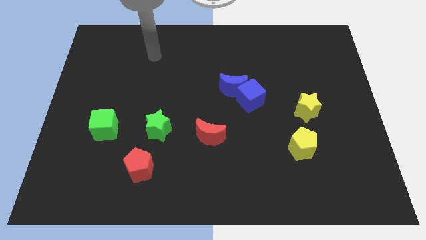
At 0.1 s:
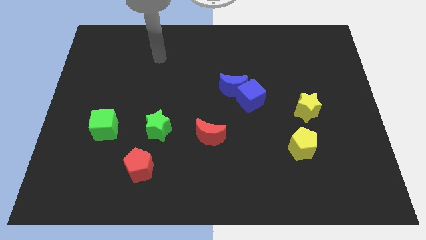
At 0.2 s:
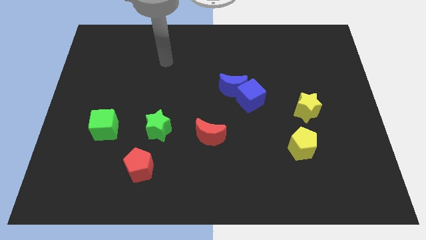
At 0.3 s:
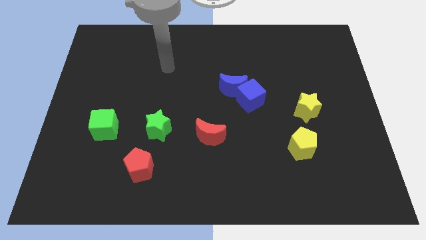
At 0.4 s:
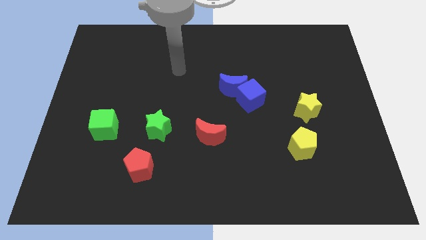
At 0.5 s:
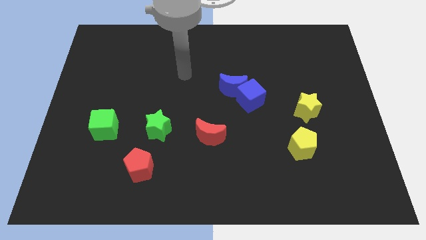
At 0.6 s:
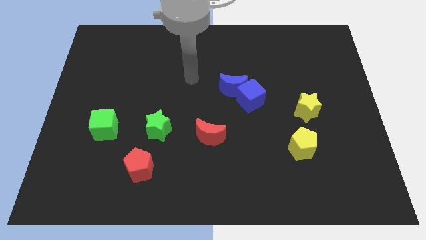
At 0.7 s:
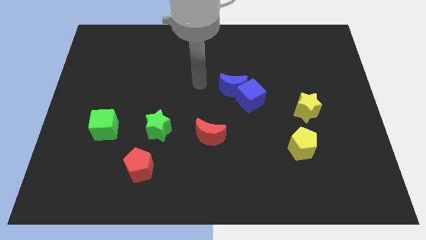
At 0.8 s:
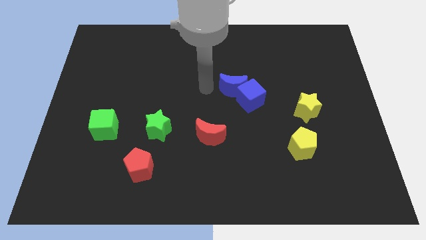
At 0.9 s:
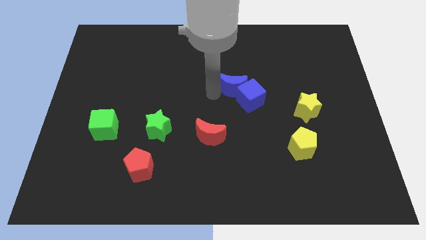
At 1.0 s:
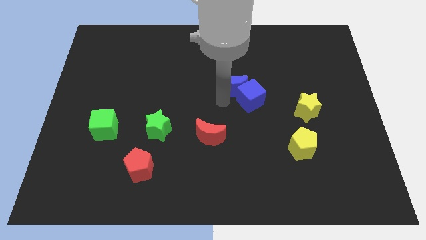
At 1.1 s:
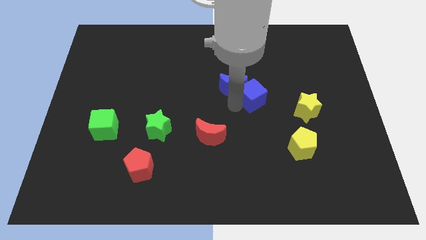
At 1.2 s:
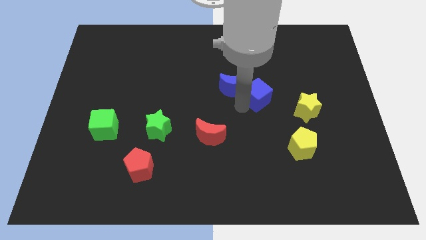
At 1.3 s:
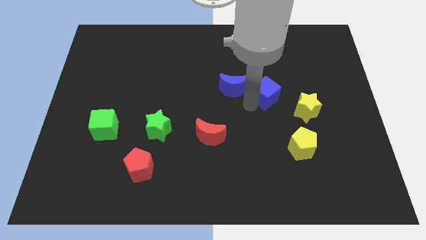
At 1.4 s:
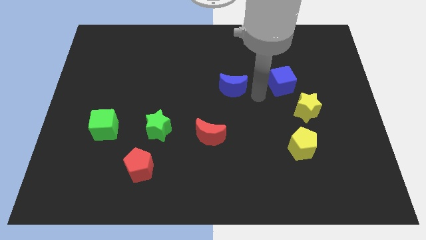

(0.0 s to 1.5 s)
pull the blue moon apart from the blue cube

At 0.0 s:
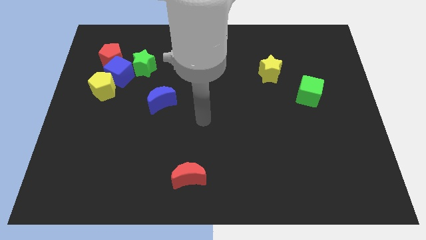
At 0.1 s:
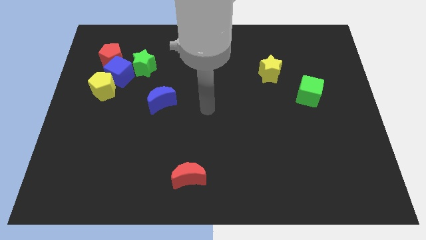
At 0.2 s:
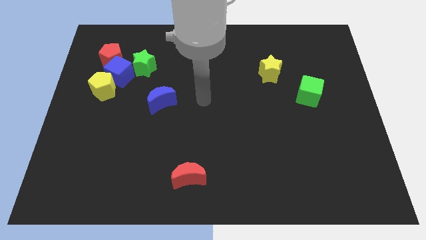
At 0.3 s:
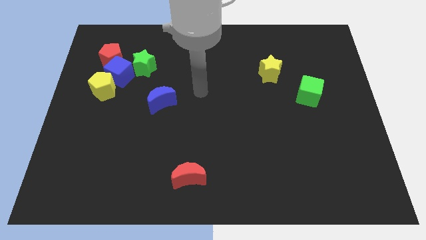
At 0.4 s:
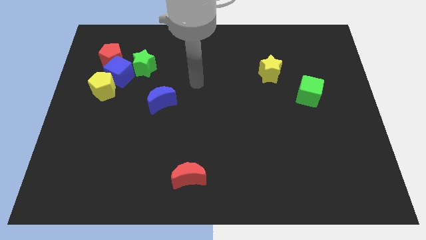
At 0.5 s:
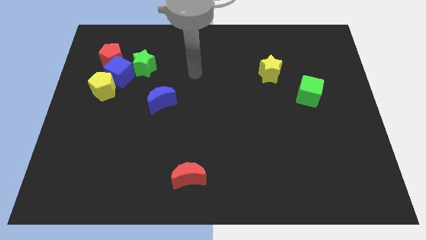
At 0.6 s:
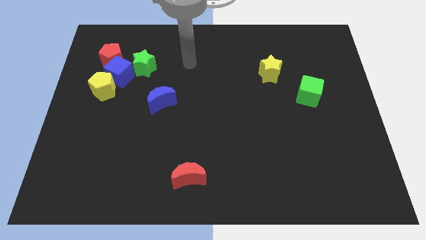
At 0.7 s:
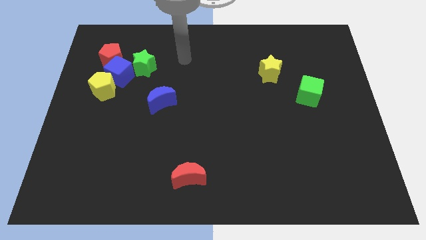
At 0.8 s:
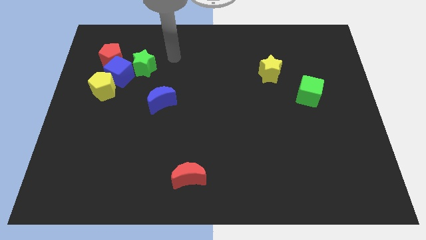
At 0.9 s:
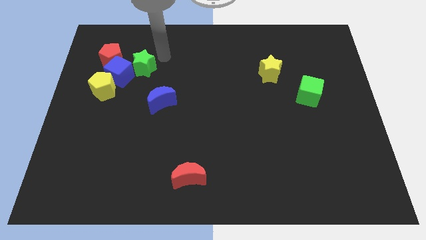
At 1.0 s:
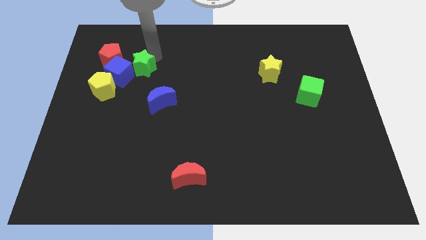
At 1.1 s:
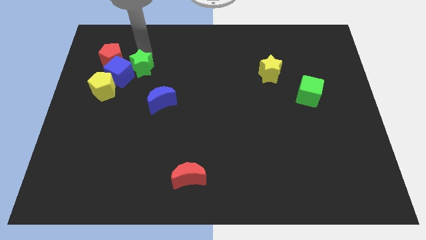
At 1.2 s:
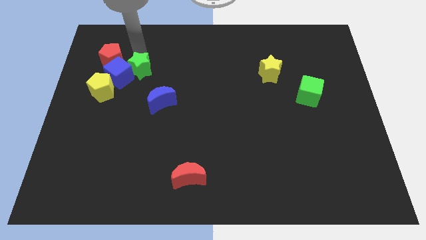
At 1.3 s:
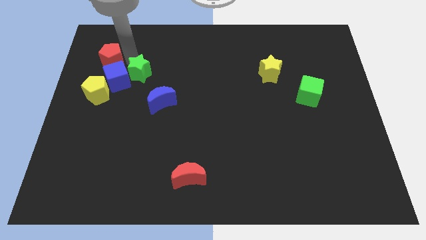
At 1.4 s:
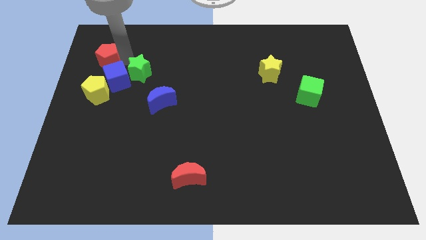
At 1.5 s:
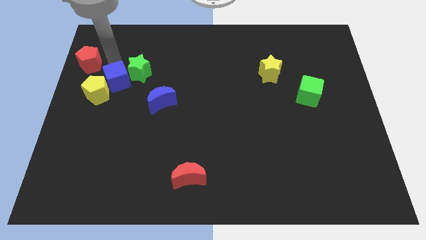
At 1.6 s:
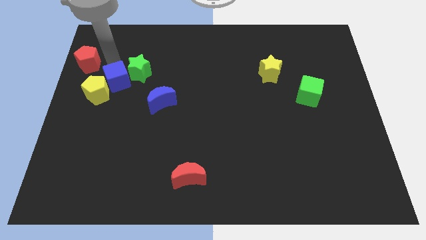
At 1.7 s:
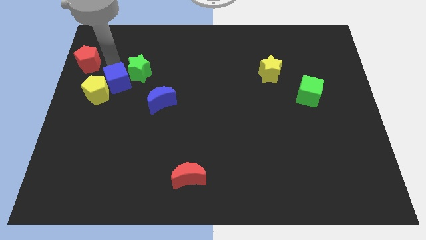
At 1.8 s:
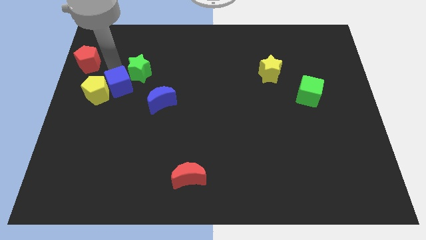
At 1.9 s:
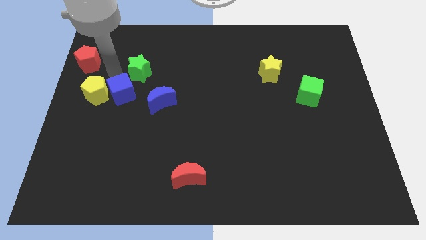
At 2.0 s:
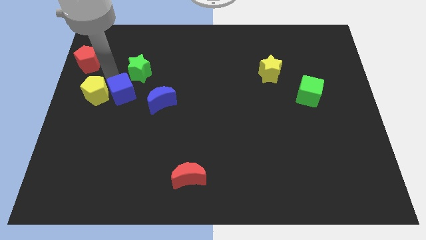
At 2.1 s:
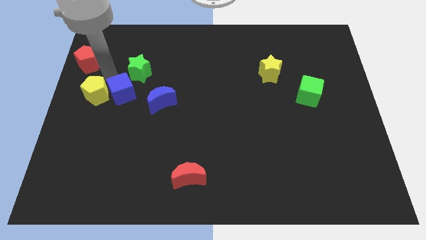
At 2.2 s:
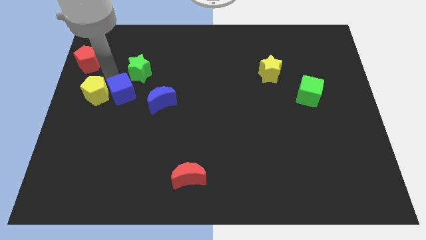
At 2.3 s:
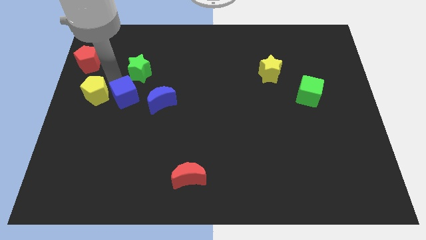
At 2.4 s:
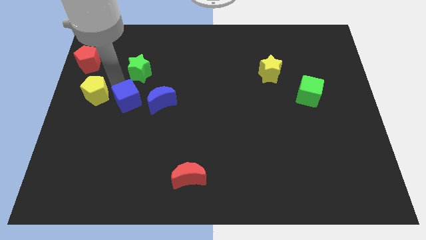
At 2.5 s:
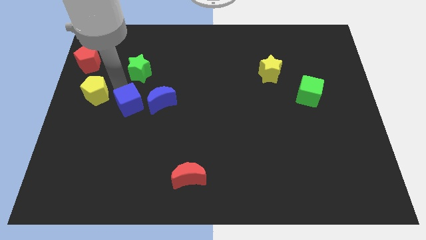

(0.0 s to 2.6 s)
move the blue cube away from the red pentagon, yellow pentagon, and green star

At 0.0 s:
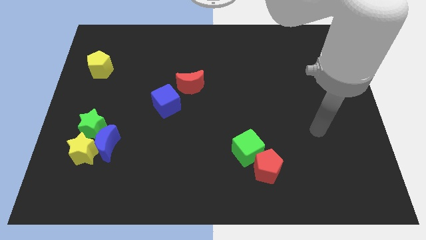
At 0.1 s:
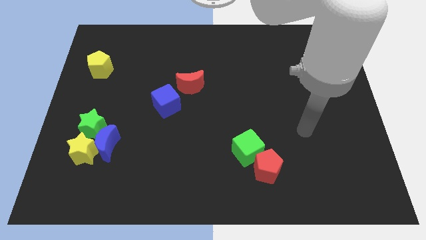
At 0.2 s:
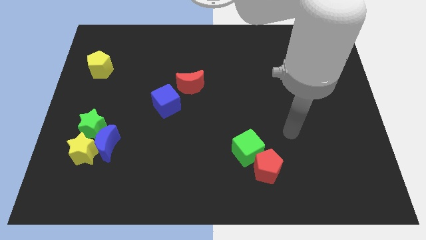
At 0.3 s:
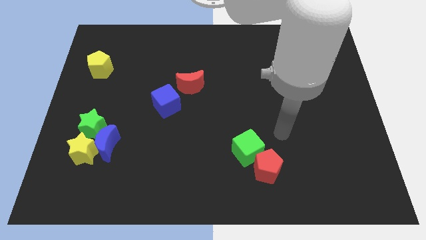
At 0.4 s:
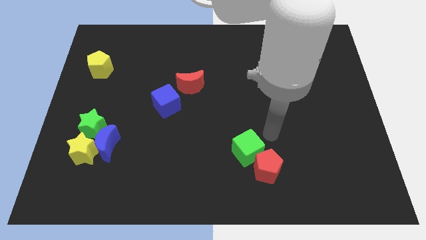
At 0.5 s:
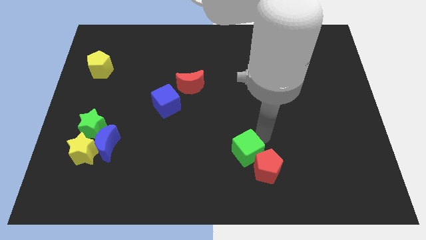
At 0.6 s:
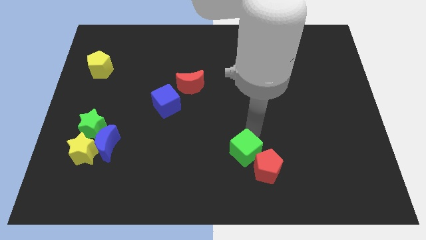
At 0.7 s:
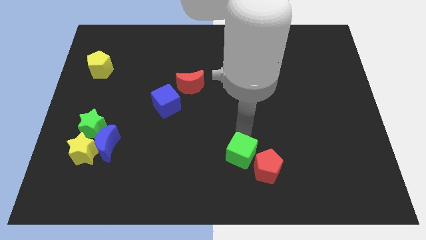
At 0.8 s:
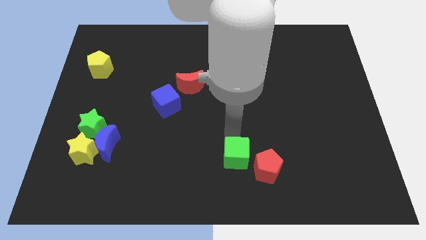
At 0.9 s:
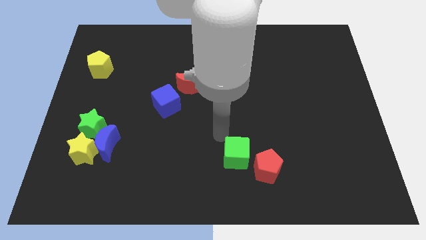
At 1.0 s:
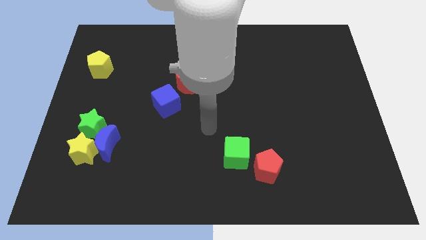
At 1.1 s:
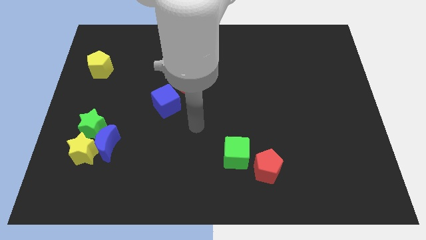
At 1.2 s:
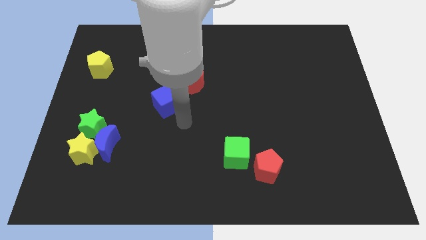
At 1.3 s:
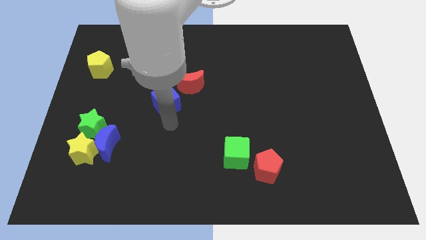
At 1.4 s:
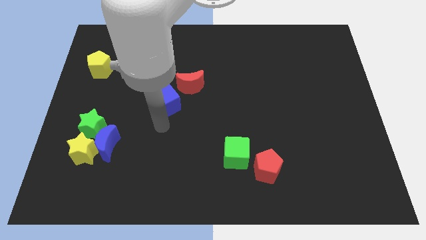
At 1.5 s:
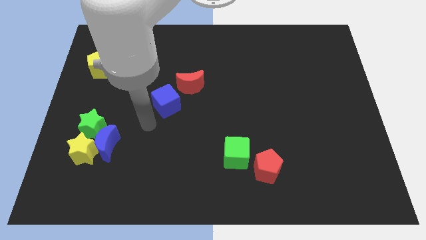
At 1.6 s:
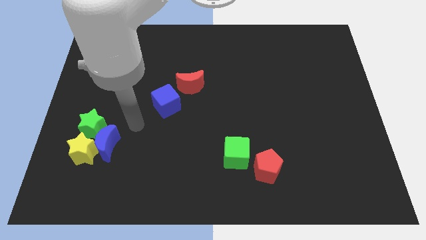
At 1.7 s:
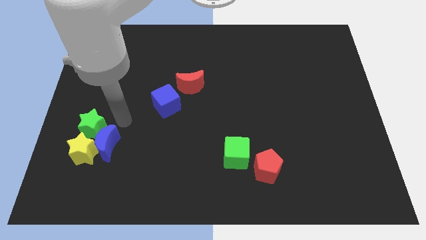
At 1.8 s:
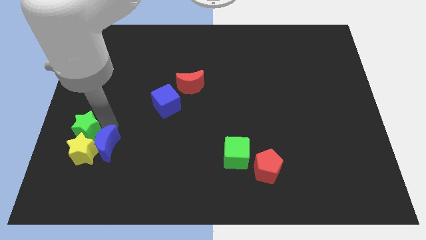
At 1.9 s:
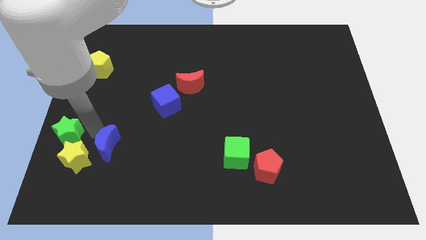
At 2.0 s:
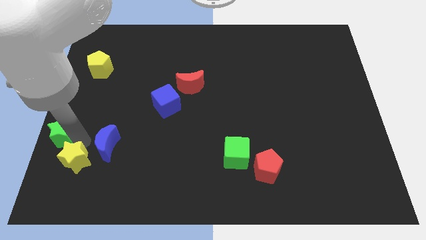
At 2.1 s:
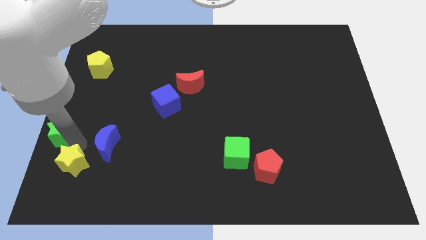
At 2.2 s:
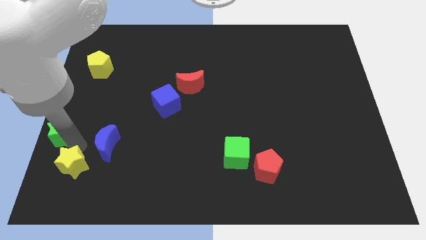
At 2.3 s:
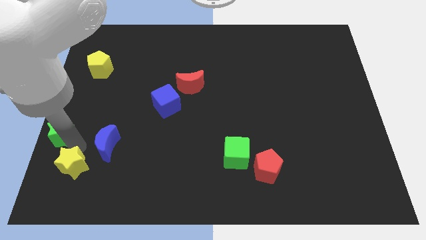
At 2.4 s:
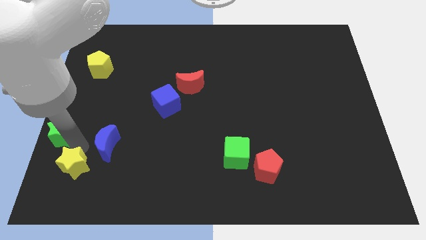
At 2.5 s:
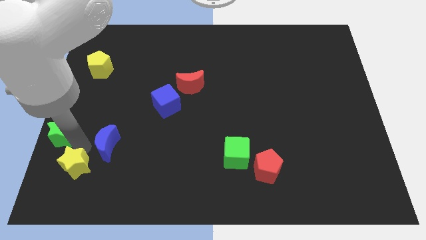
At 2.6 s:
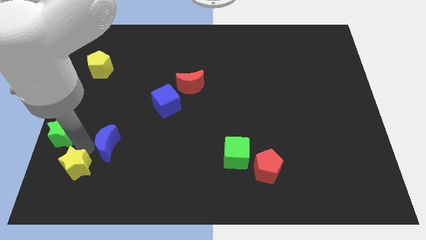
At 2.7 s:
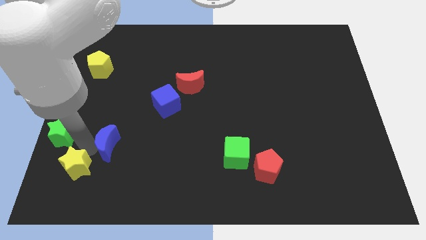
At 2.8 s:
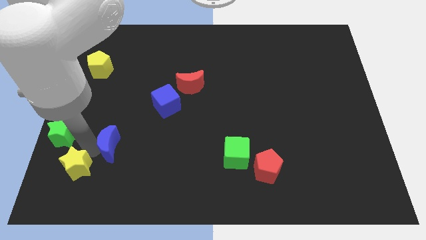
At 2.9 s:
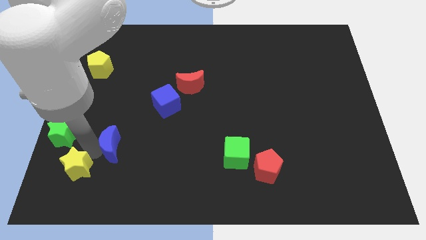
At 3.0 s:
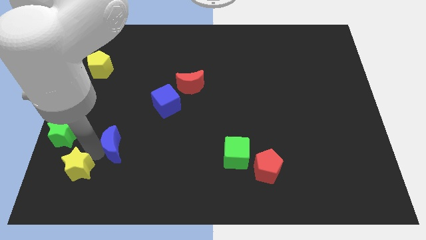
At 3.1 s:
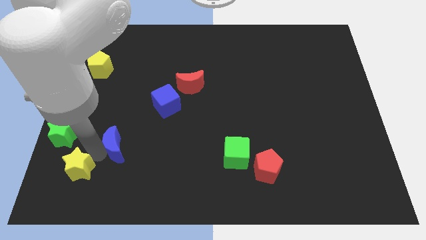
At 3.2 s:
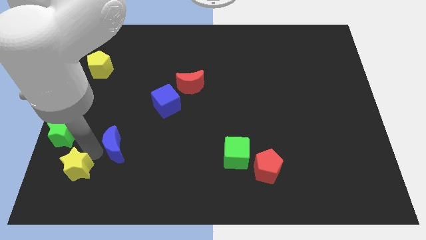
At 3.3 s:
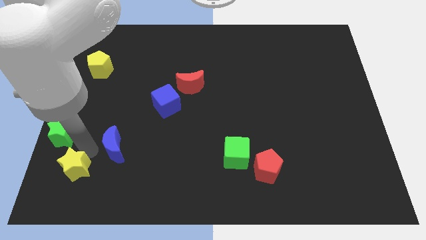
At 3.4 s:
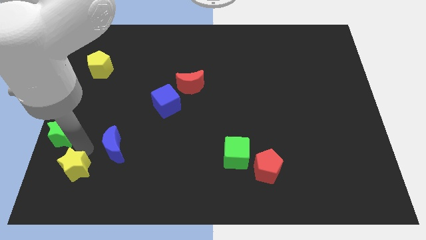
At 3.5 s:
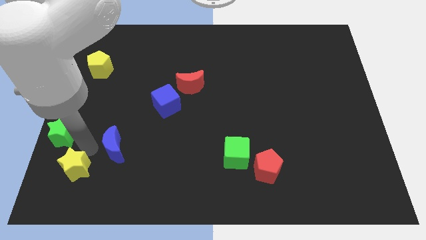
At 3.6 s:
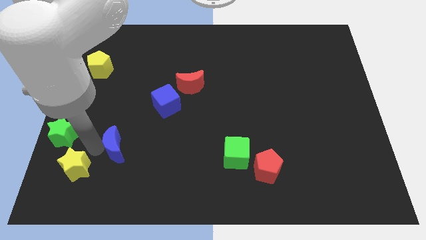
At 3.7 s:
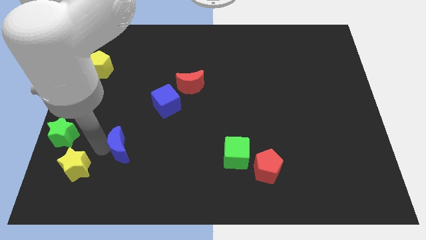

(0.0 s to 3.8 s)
separate the blue moon from the yellow star and green star

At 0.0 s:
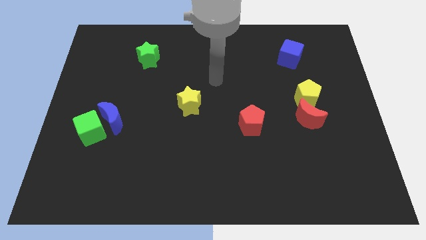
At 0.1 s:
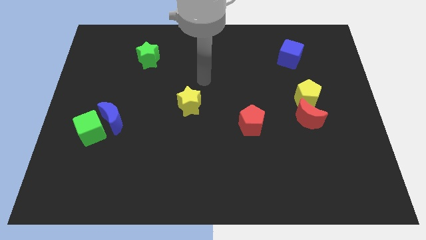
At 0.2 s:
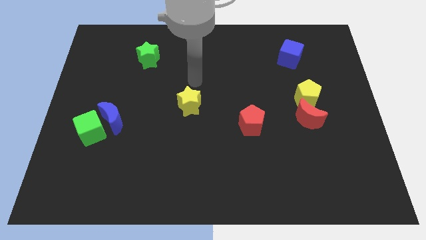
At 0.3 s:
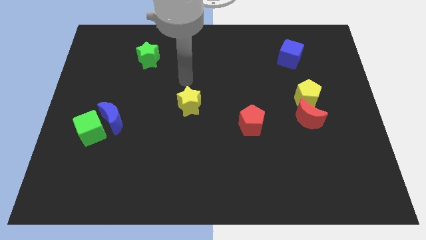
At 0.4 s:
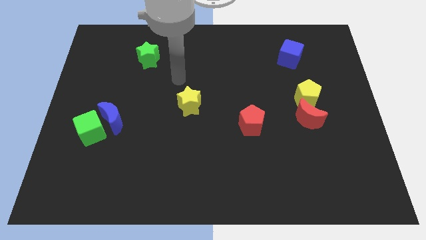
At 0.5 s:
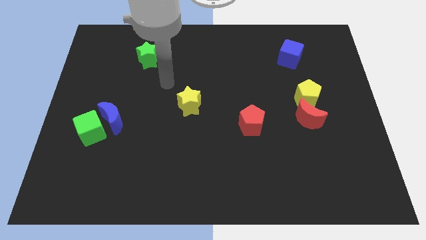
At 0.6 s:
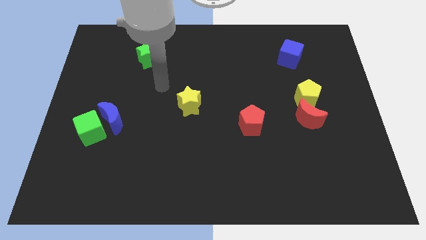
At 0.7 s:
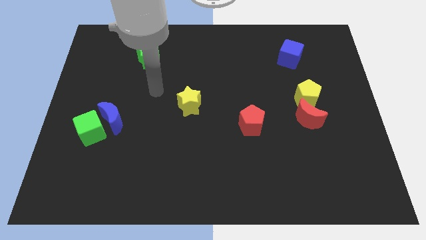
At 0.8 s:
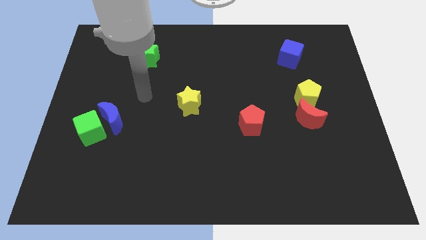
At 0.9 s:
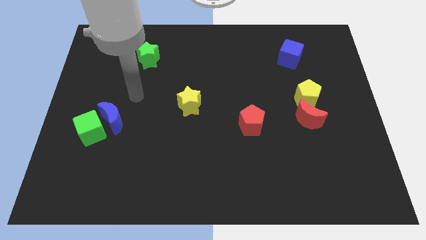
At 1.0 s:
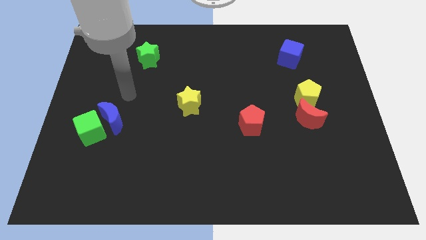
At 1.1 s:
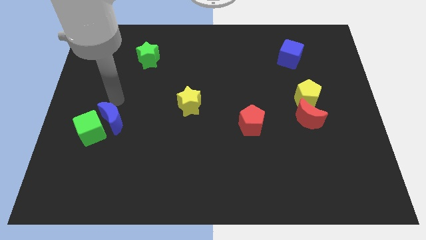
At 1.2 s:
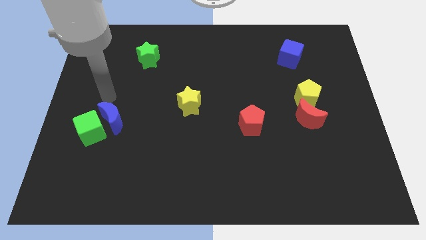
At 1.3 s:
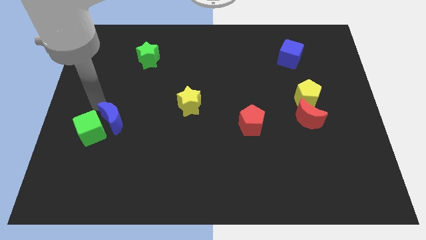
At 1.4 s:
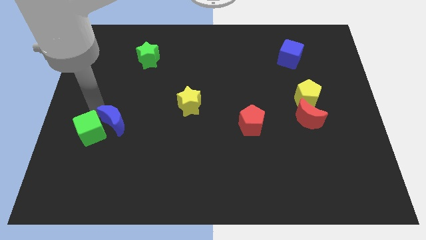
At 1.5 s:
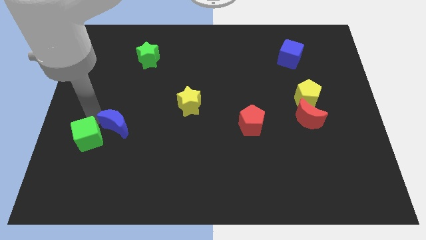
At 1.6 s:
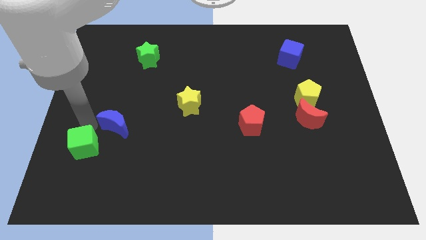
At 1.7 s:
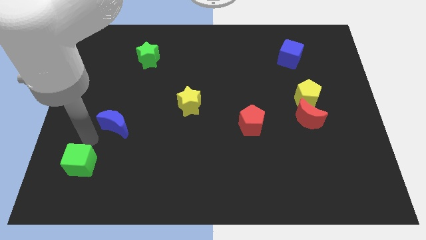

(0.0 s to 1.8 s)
move the blue moon away from the green cube
